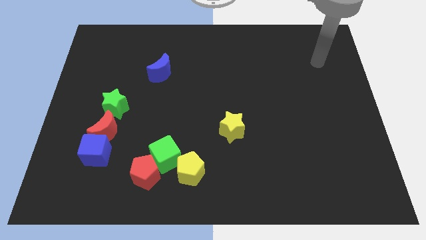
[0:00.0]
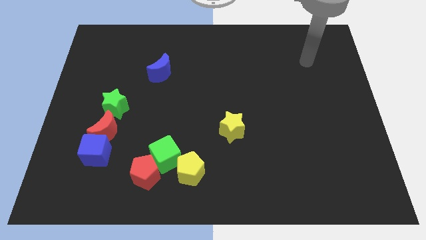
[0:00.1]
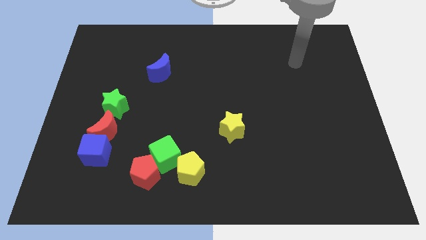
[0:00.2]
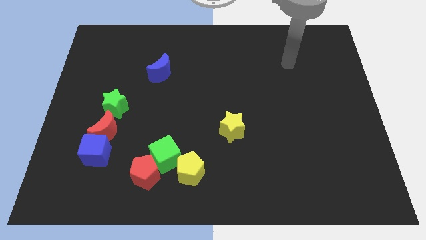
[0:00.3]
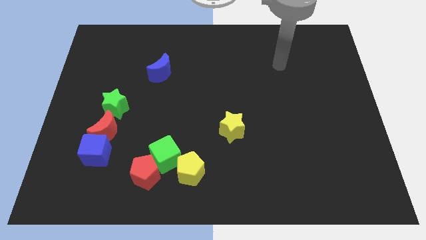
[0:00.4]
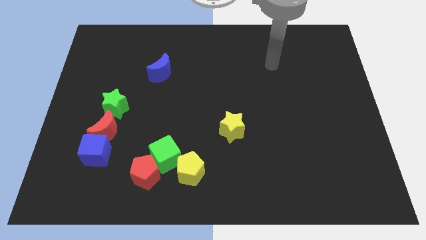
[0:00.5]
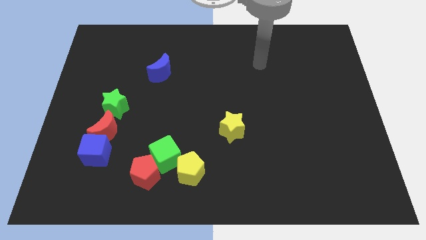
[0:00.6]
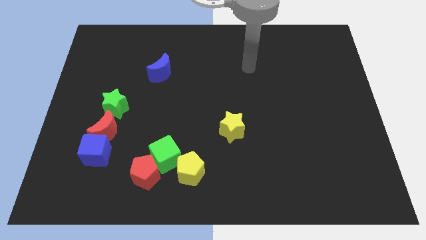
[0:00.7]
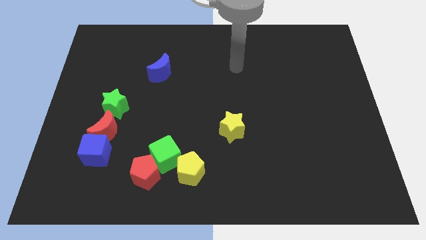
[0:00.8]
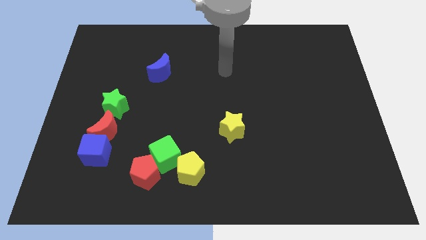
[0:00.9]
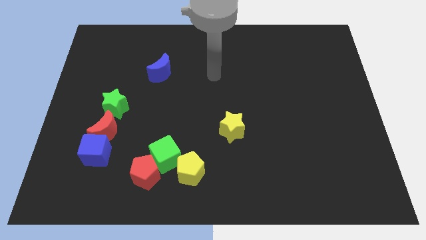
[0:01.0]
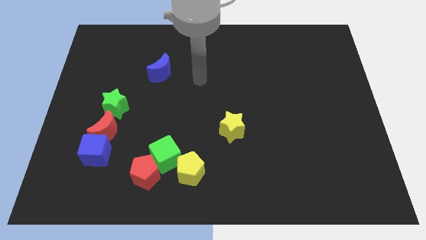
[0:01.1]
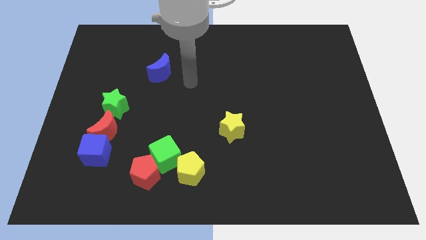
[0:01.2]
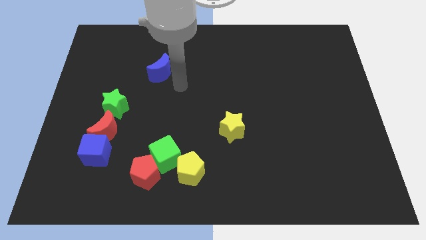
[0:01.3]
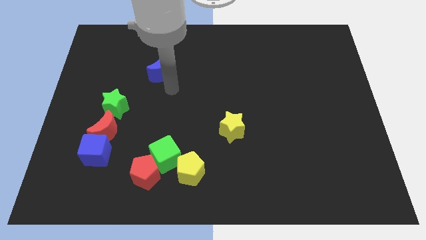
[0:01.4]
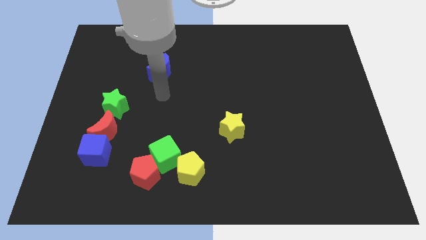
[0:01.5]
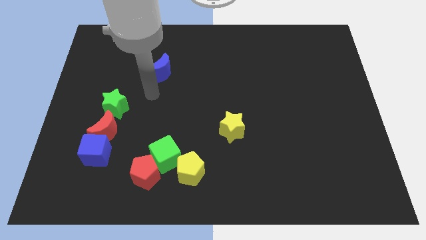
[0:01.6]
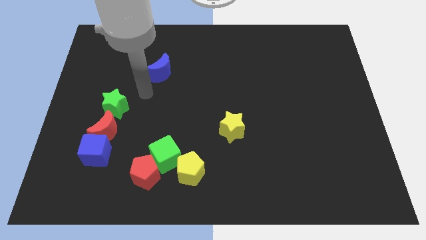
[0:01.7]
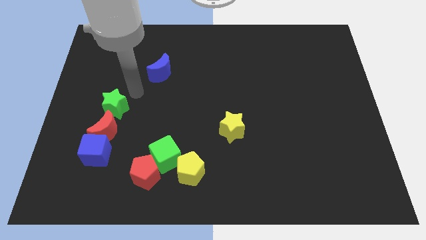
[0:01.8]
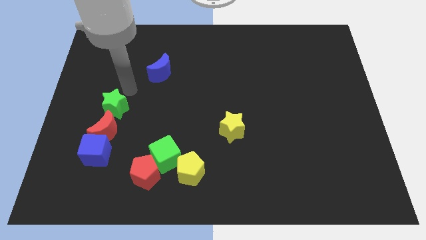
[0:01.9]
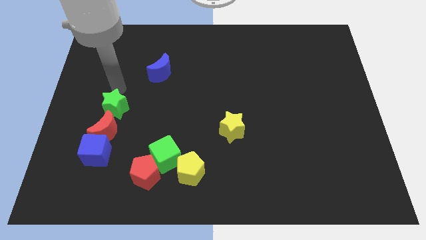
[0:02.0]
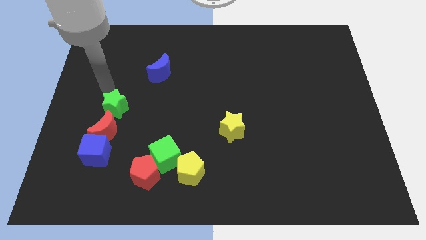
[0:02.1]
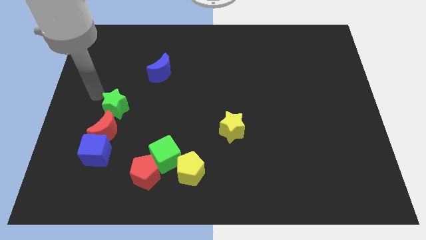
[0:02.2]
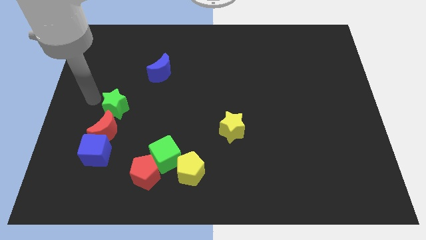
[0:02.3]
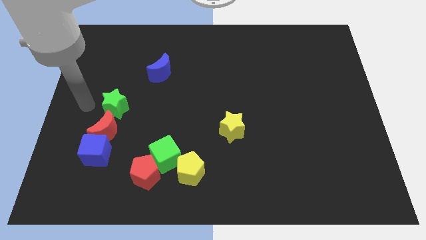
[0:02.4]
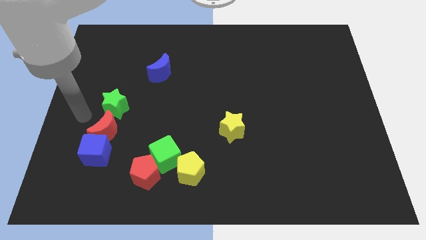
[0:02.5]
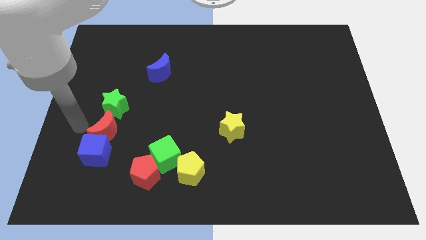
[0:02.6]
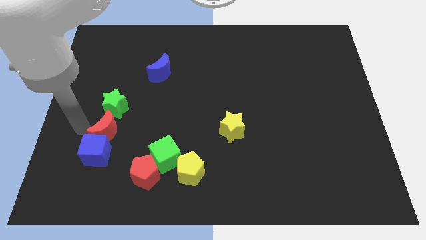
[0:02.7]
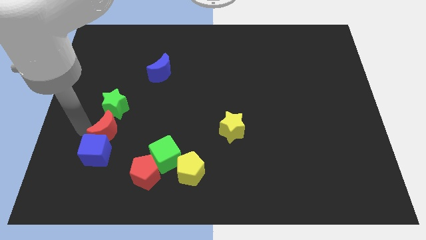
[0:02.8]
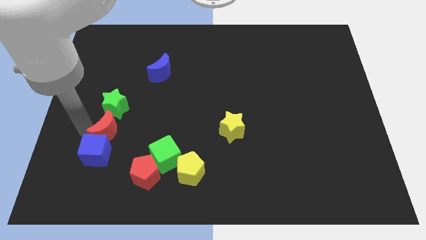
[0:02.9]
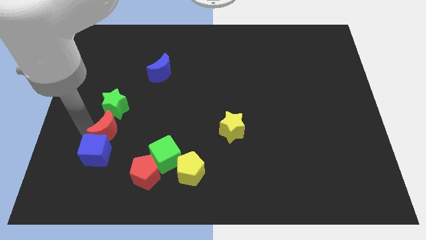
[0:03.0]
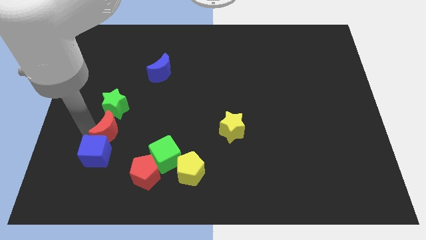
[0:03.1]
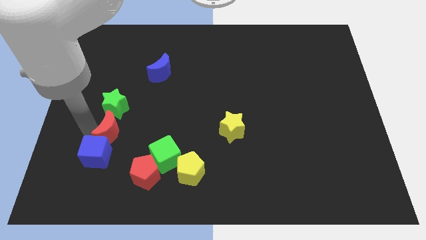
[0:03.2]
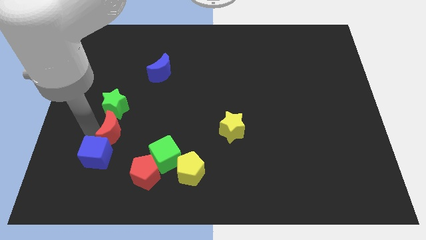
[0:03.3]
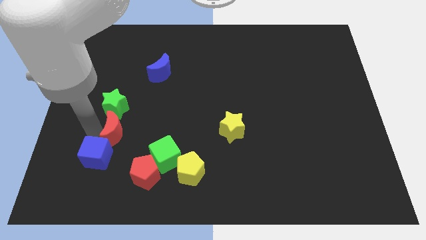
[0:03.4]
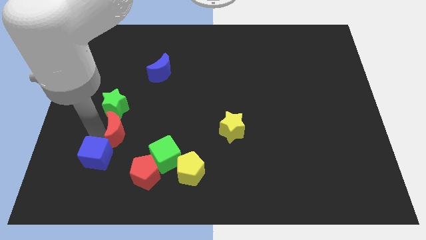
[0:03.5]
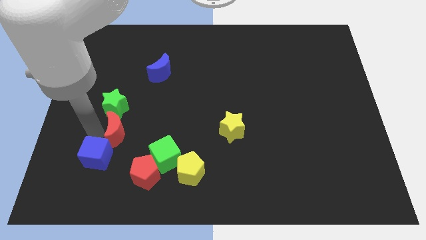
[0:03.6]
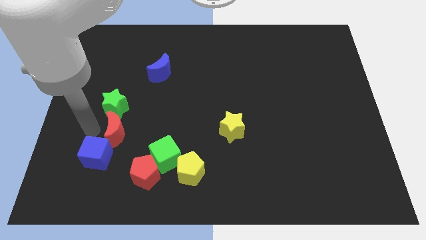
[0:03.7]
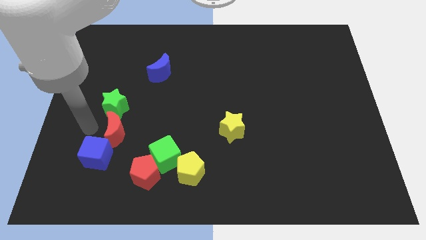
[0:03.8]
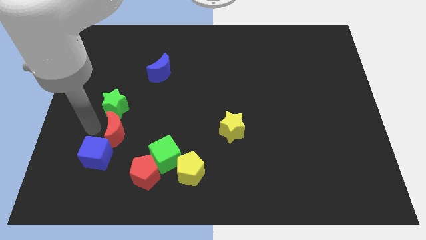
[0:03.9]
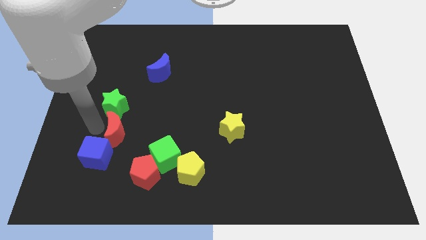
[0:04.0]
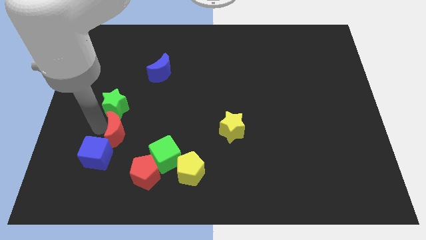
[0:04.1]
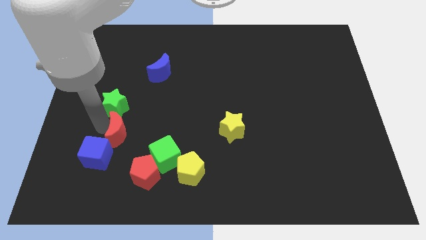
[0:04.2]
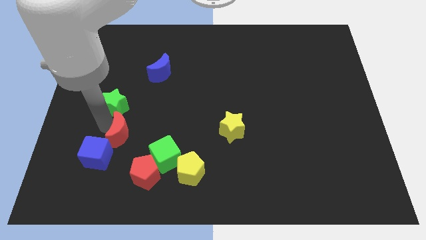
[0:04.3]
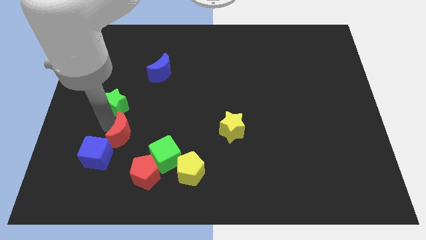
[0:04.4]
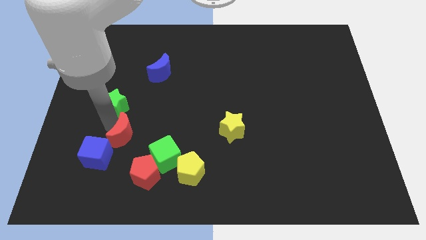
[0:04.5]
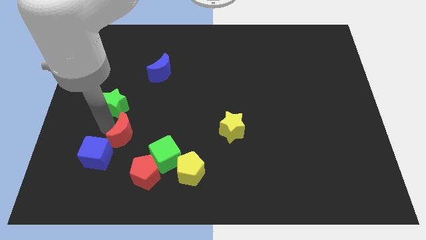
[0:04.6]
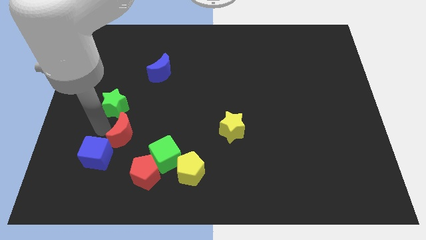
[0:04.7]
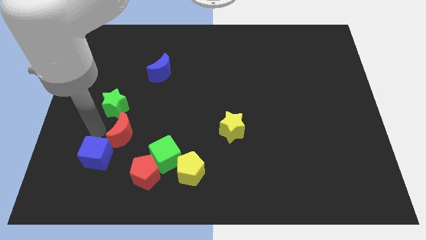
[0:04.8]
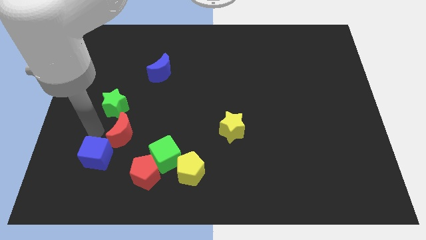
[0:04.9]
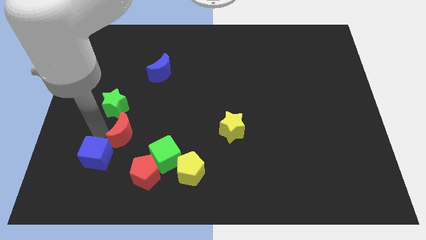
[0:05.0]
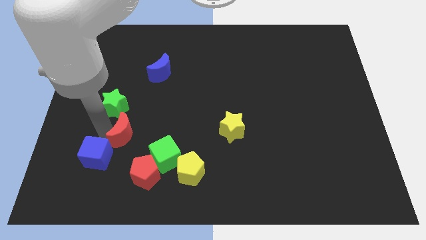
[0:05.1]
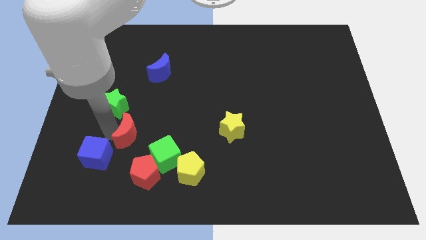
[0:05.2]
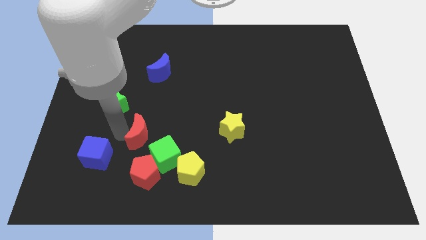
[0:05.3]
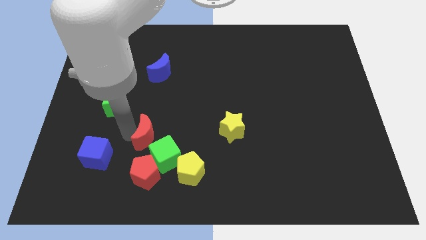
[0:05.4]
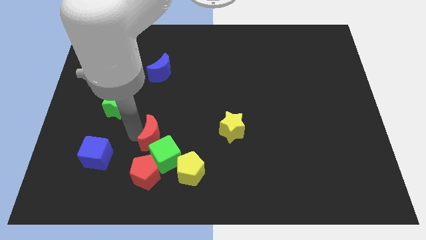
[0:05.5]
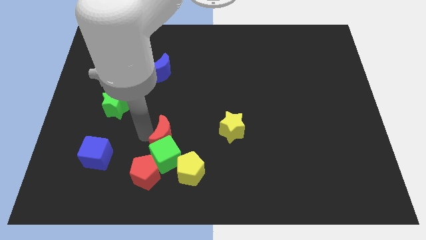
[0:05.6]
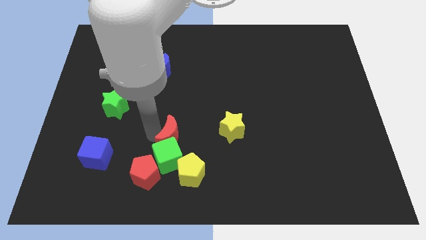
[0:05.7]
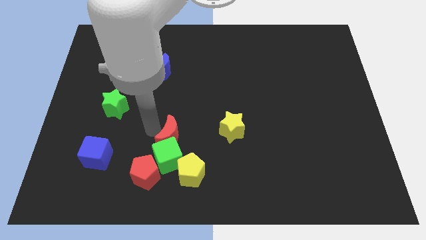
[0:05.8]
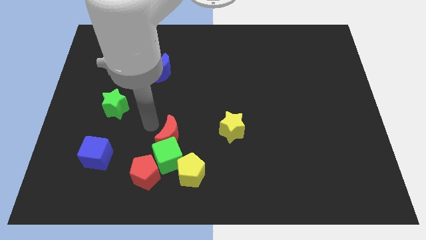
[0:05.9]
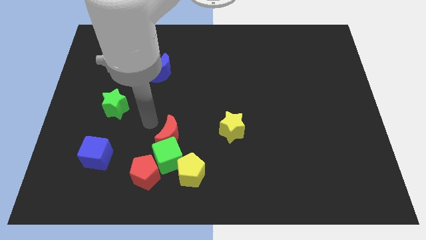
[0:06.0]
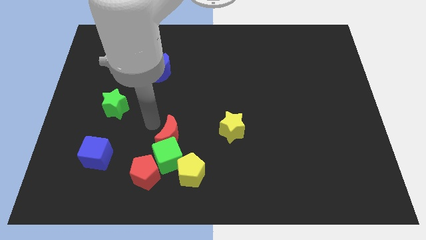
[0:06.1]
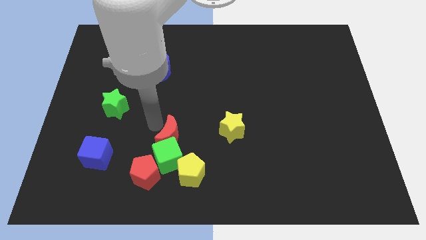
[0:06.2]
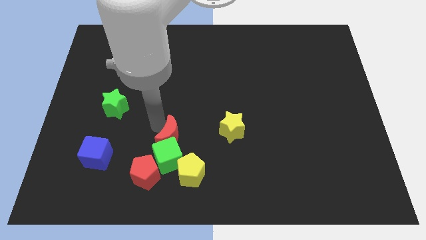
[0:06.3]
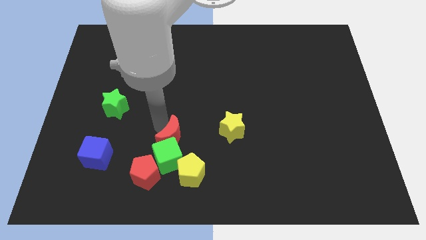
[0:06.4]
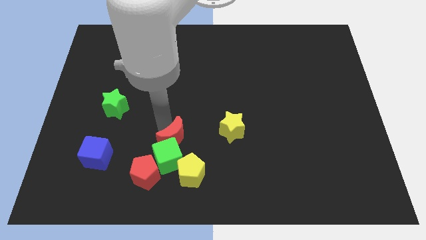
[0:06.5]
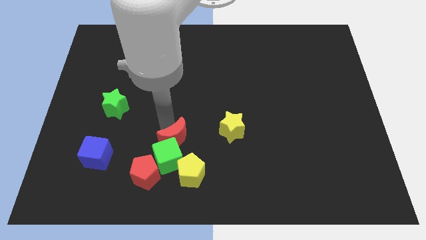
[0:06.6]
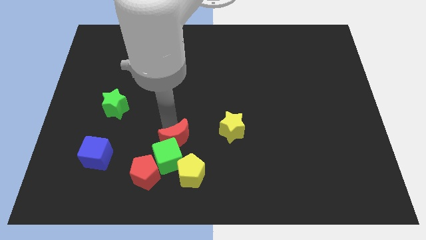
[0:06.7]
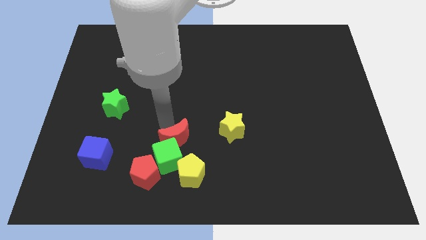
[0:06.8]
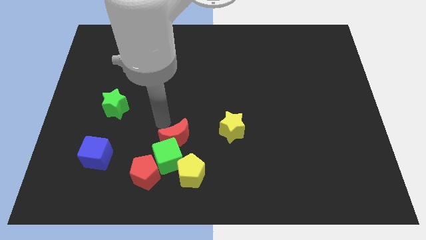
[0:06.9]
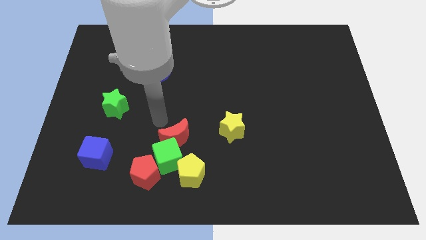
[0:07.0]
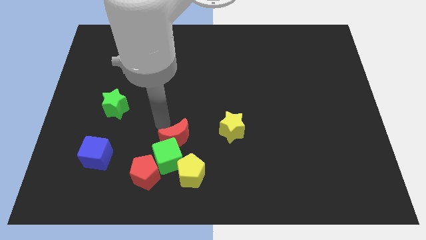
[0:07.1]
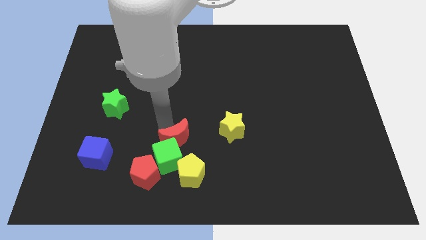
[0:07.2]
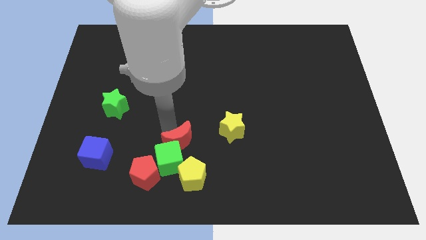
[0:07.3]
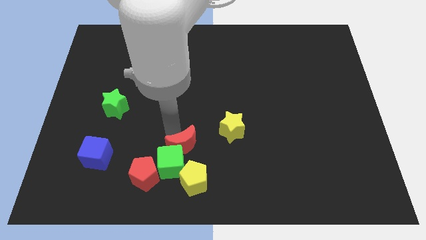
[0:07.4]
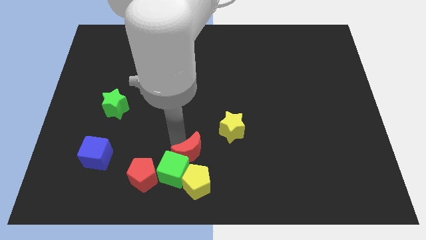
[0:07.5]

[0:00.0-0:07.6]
slide the red moon just right of the green cube
